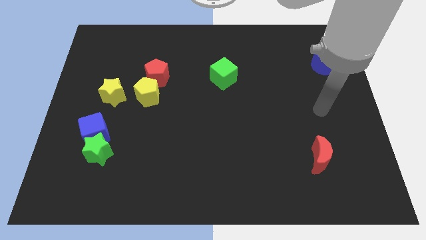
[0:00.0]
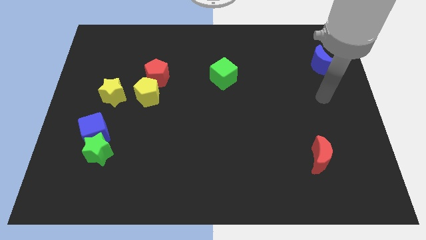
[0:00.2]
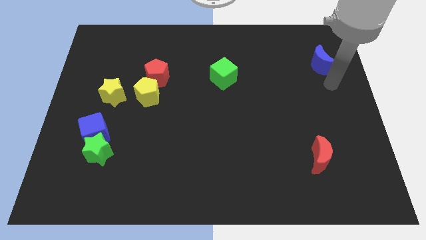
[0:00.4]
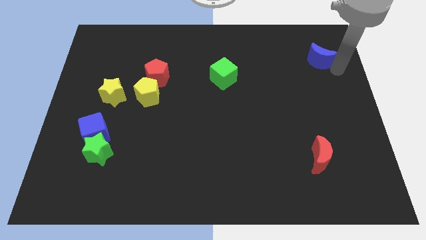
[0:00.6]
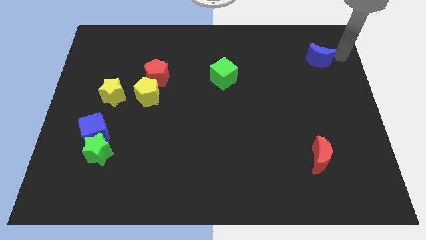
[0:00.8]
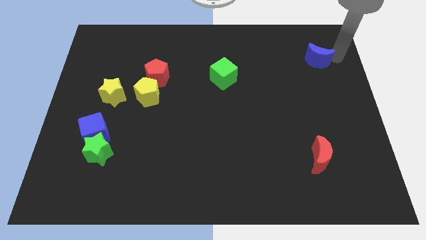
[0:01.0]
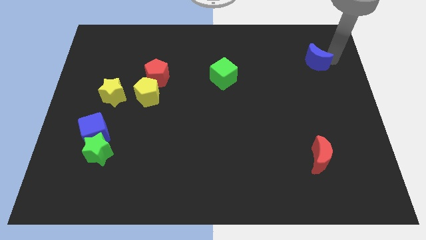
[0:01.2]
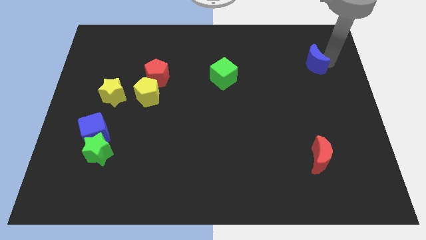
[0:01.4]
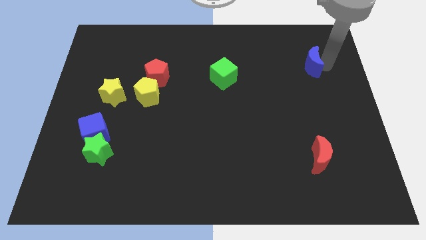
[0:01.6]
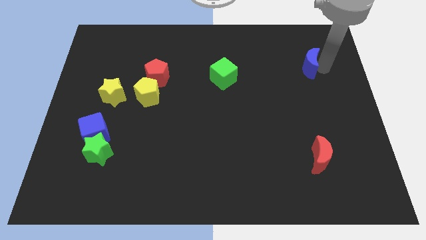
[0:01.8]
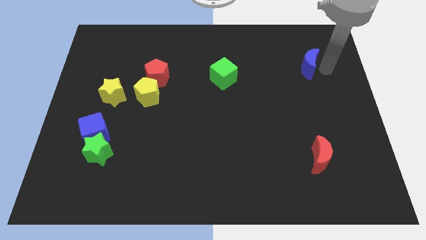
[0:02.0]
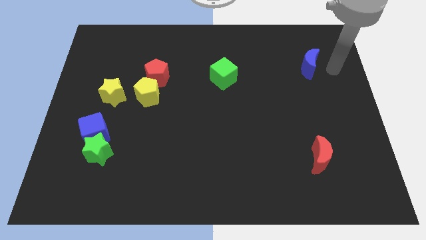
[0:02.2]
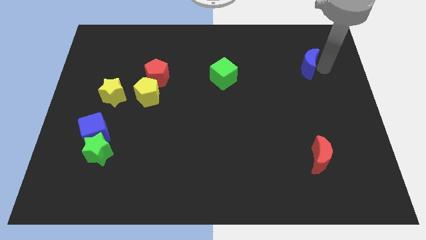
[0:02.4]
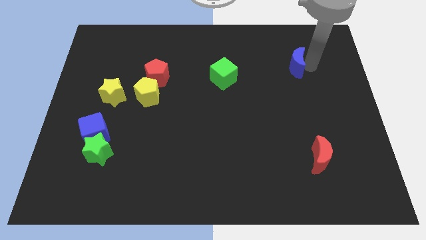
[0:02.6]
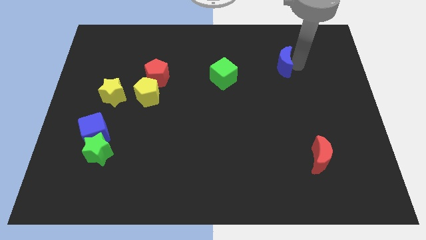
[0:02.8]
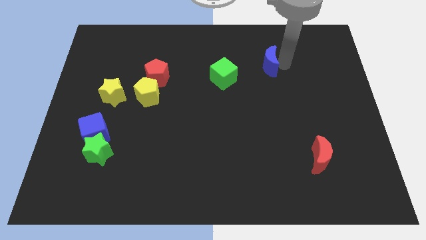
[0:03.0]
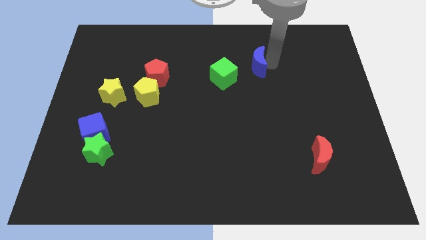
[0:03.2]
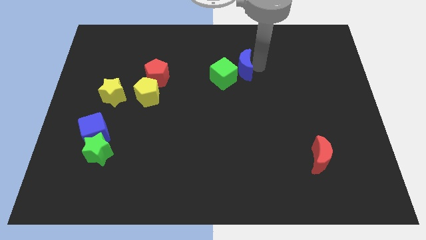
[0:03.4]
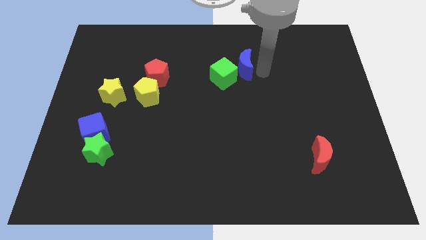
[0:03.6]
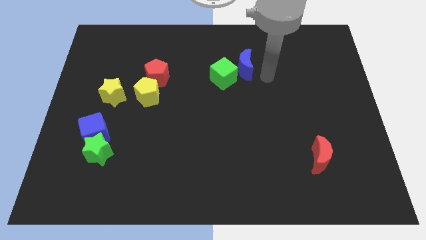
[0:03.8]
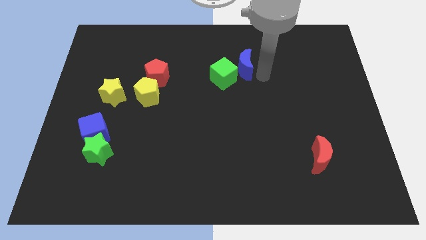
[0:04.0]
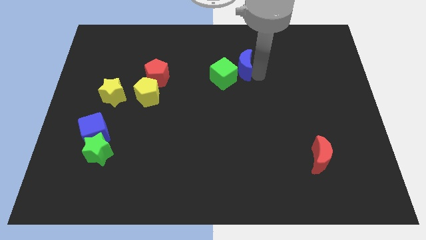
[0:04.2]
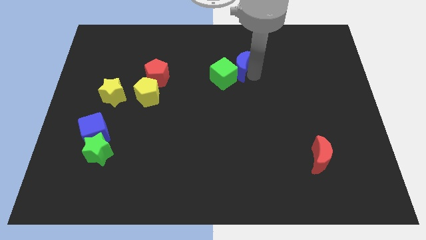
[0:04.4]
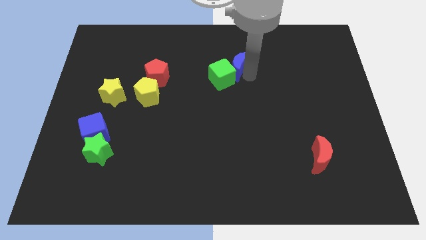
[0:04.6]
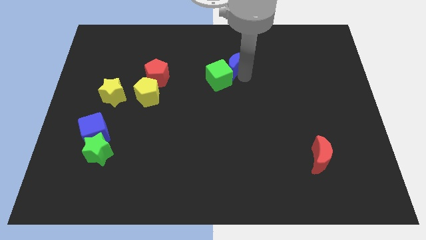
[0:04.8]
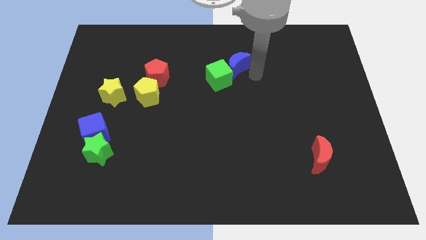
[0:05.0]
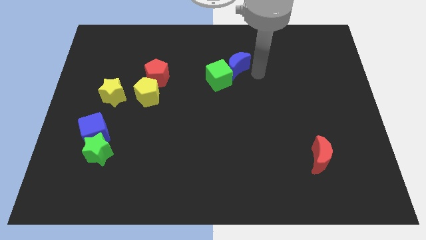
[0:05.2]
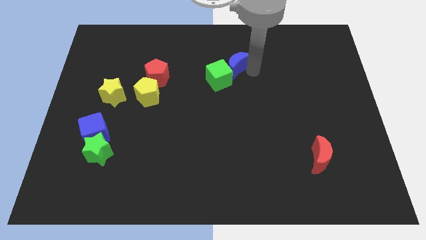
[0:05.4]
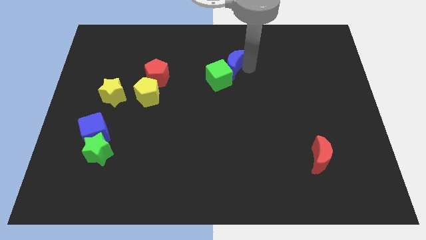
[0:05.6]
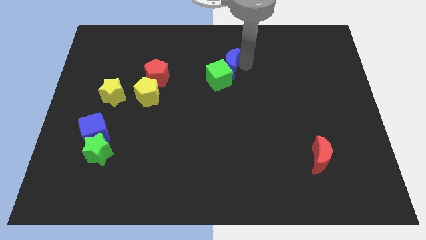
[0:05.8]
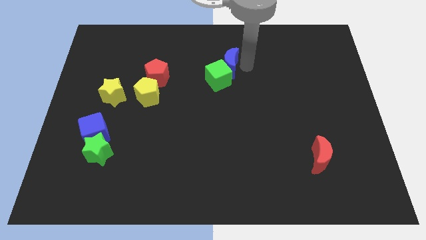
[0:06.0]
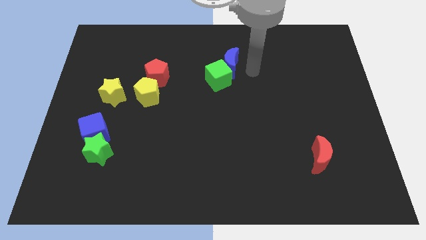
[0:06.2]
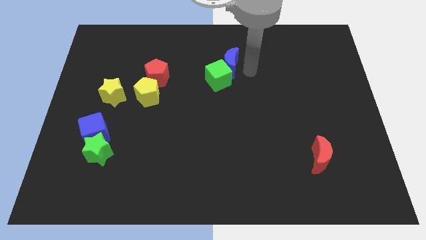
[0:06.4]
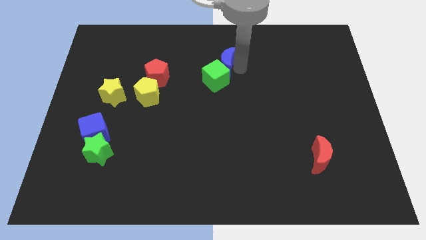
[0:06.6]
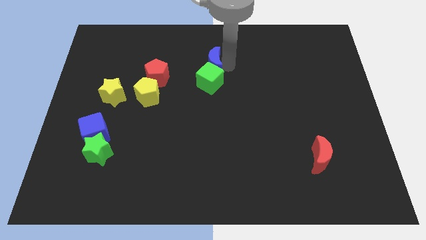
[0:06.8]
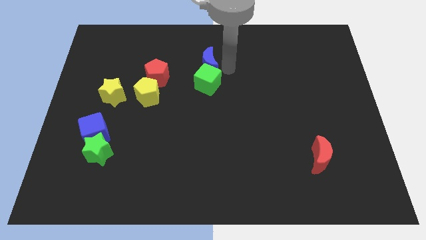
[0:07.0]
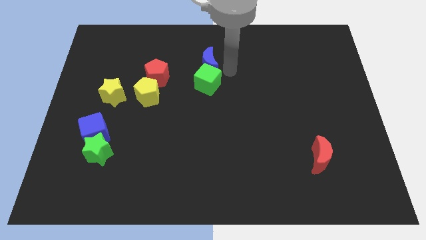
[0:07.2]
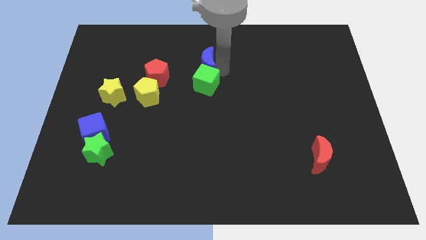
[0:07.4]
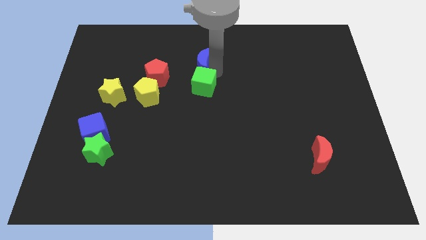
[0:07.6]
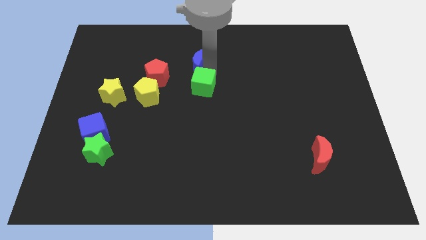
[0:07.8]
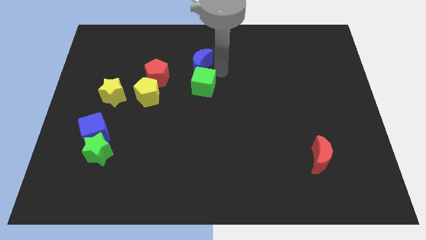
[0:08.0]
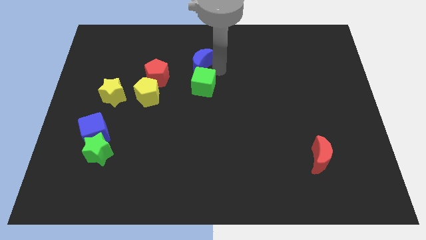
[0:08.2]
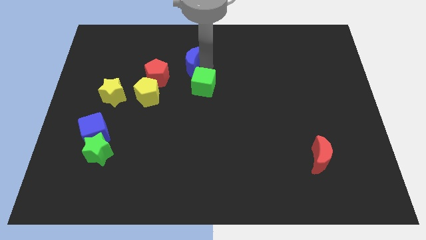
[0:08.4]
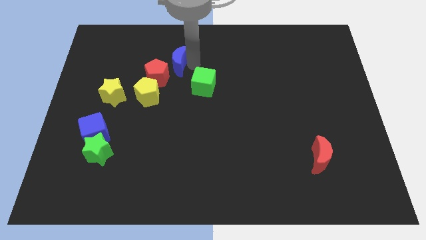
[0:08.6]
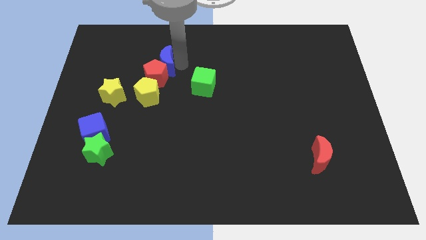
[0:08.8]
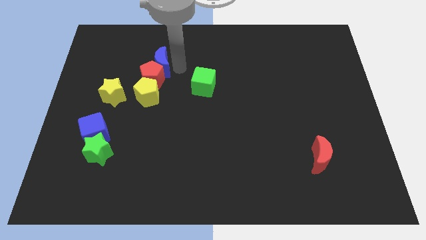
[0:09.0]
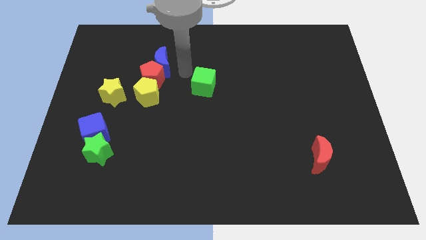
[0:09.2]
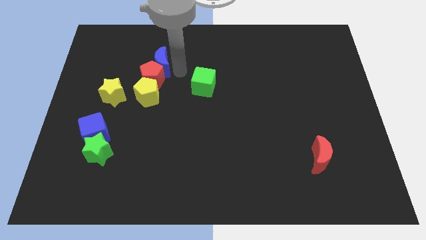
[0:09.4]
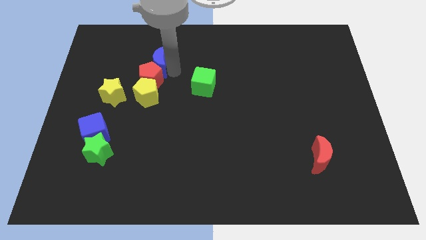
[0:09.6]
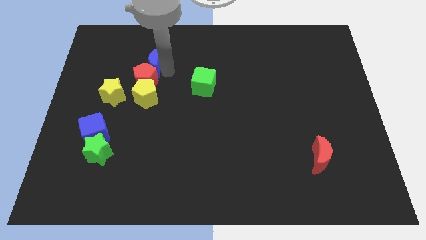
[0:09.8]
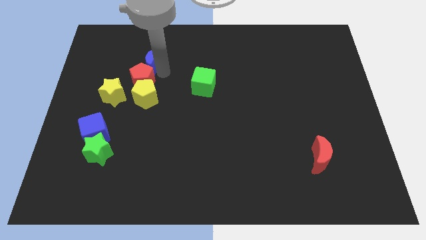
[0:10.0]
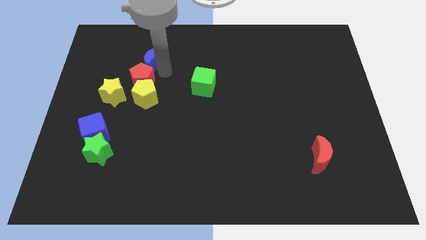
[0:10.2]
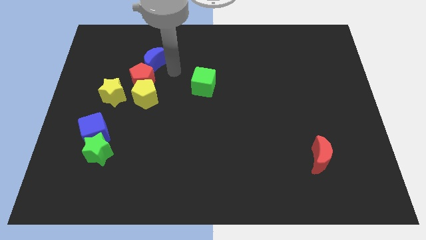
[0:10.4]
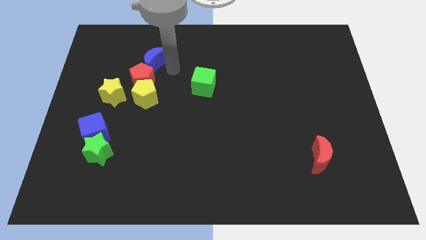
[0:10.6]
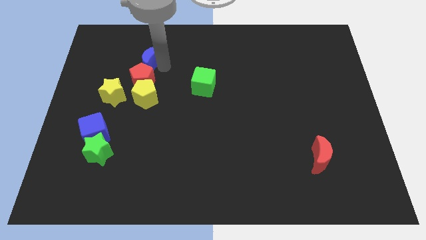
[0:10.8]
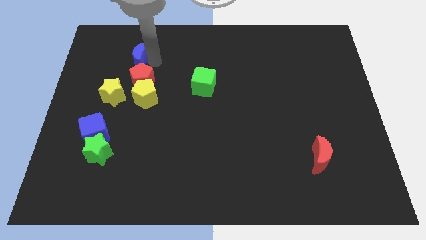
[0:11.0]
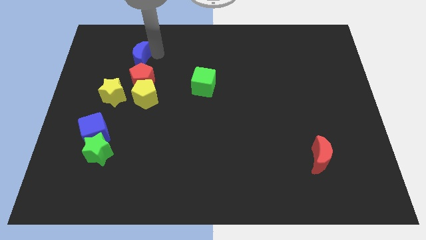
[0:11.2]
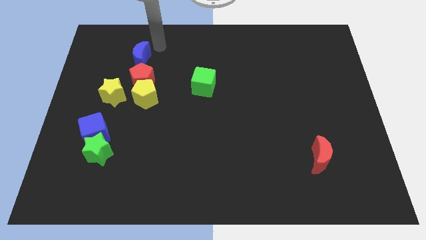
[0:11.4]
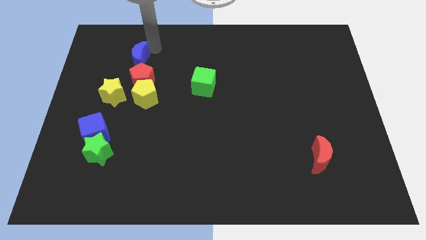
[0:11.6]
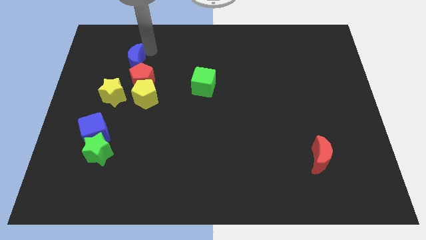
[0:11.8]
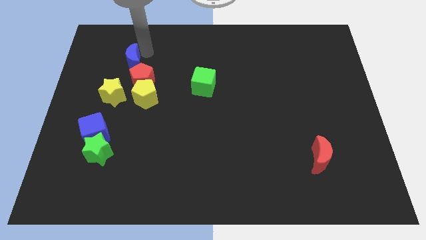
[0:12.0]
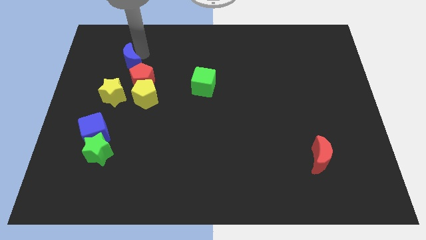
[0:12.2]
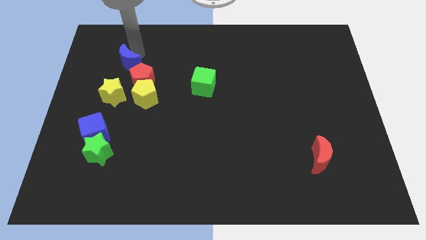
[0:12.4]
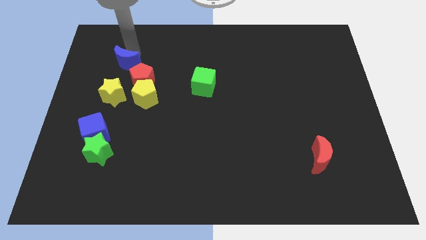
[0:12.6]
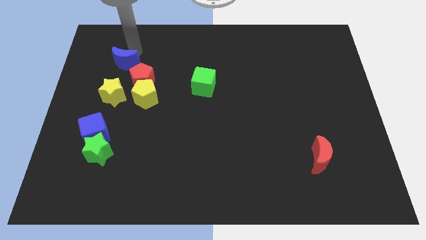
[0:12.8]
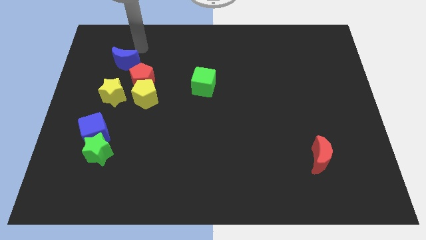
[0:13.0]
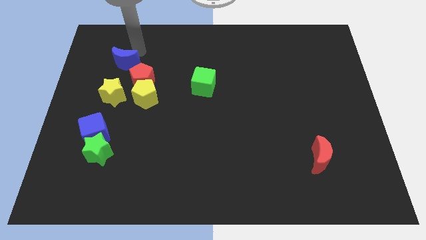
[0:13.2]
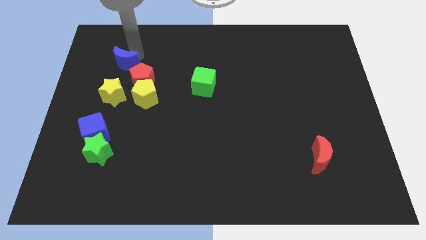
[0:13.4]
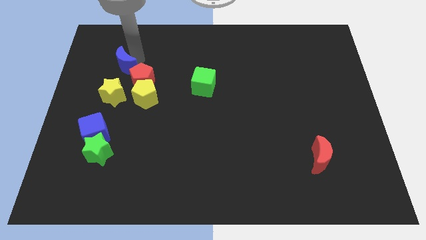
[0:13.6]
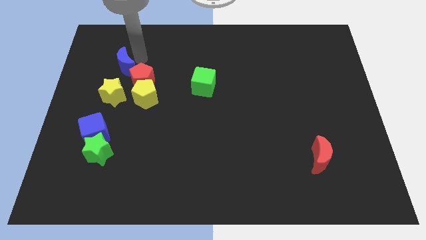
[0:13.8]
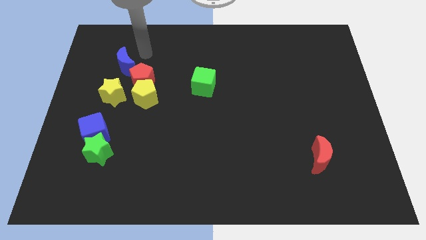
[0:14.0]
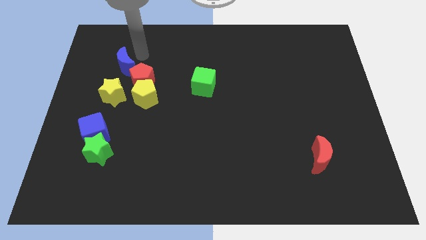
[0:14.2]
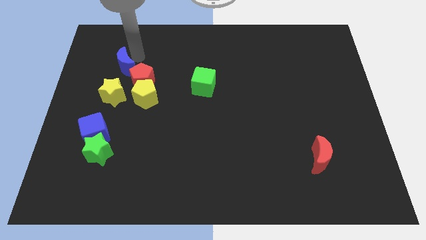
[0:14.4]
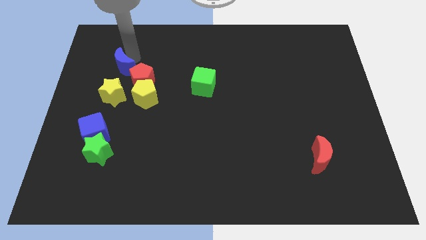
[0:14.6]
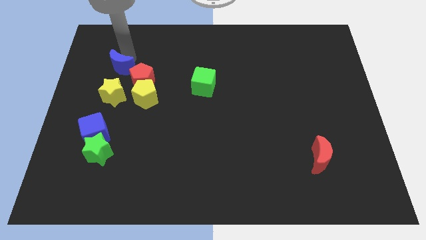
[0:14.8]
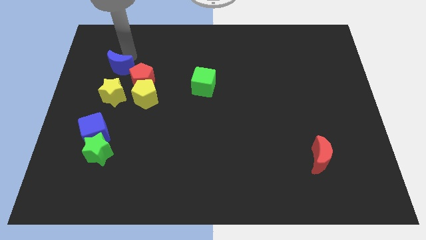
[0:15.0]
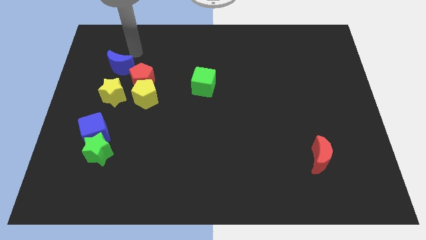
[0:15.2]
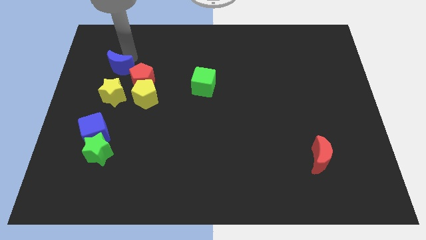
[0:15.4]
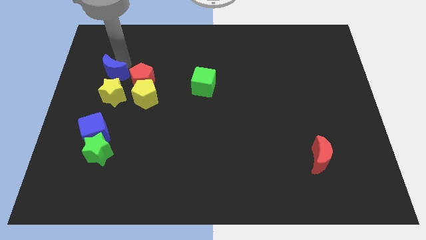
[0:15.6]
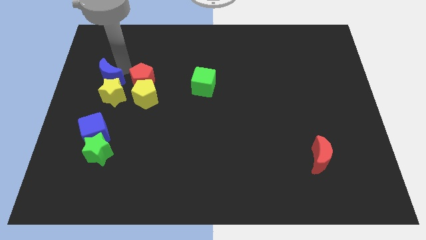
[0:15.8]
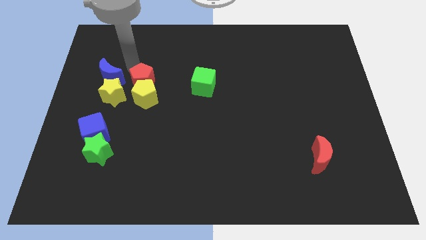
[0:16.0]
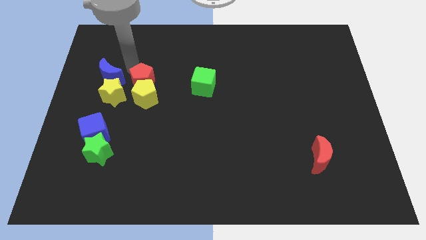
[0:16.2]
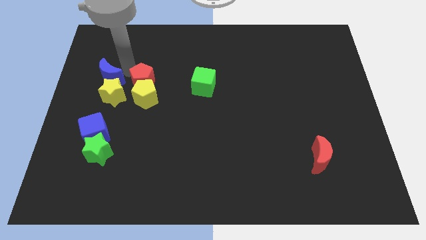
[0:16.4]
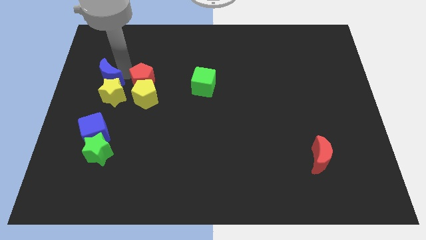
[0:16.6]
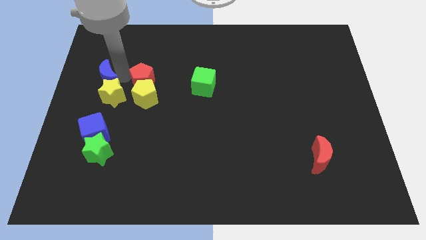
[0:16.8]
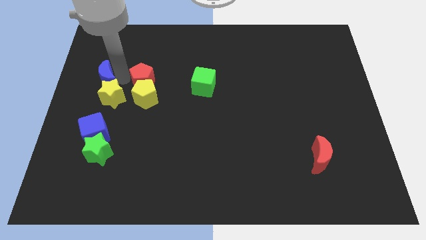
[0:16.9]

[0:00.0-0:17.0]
move the blue moon to the left side
